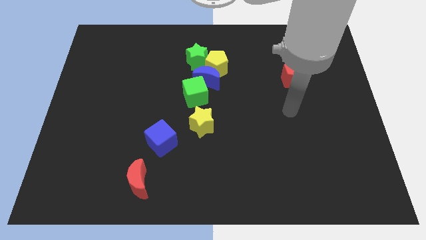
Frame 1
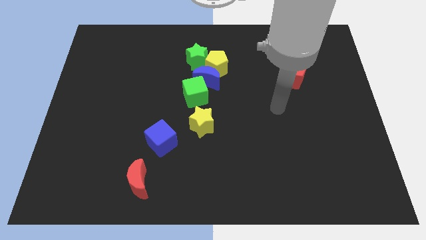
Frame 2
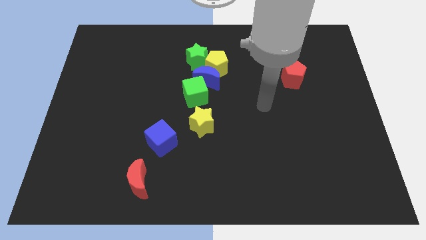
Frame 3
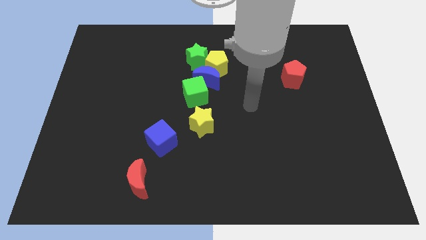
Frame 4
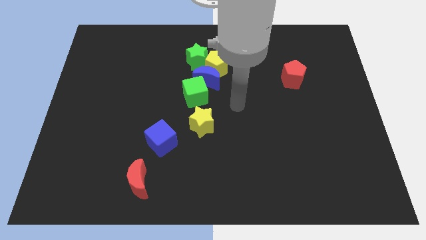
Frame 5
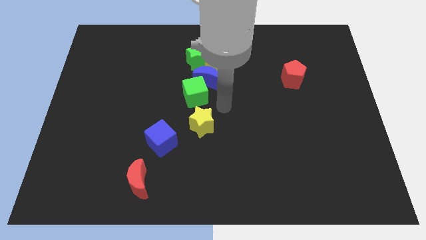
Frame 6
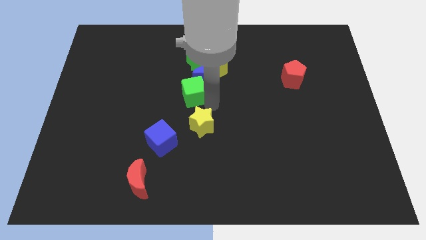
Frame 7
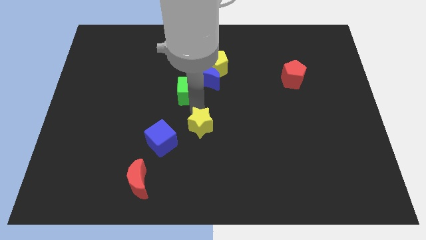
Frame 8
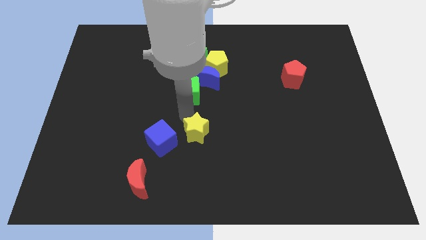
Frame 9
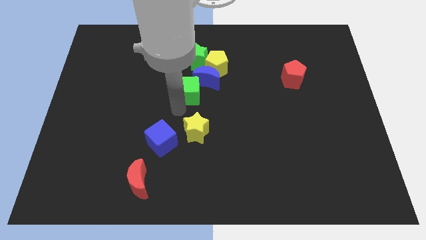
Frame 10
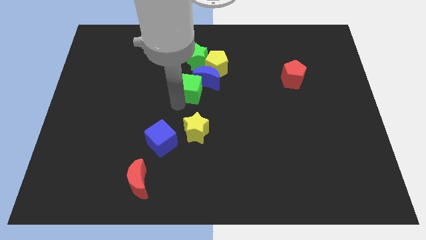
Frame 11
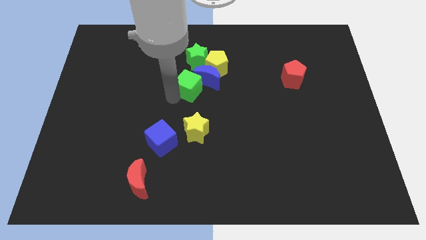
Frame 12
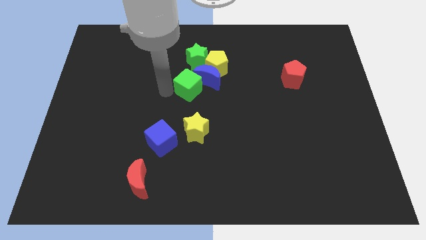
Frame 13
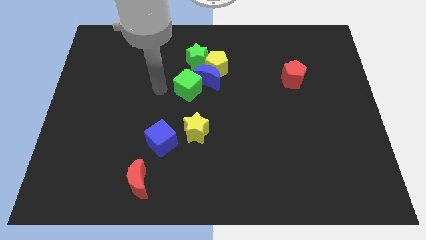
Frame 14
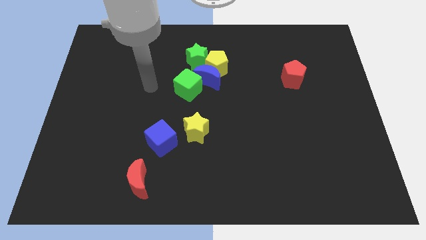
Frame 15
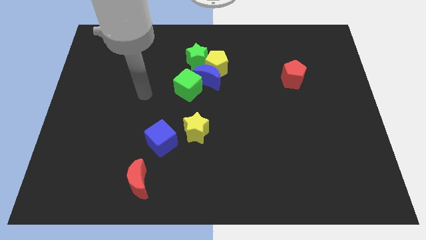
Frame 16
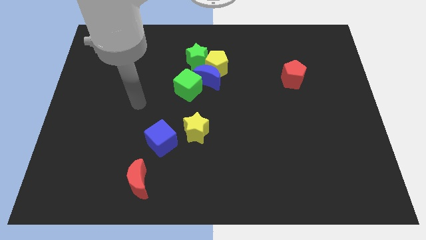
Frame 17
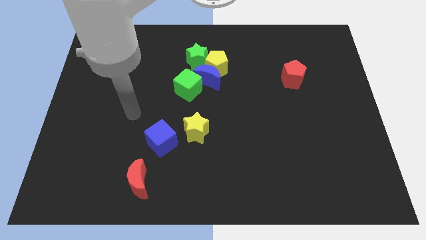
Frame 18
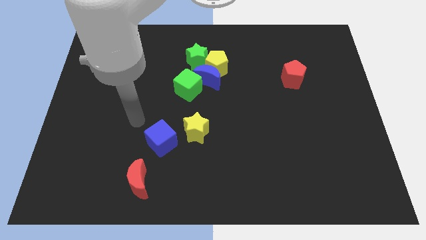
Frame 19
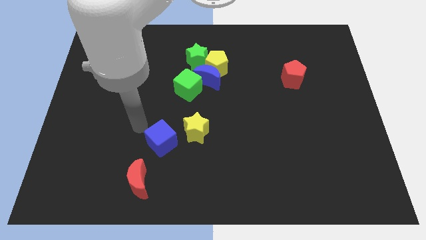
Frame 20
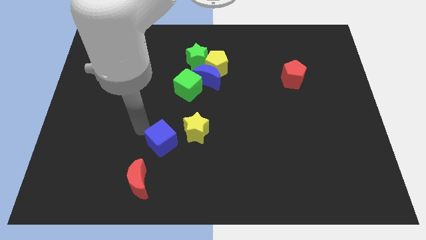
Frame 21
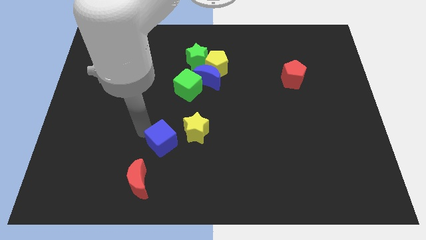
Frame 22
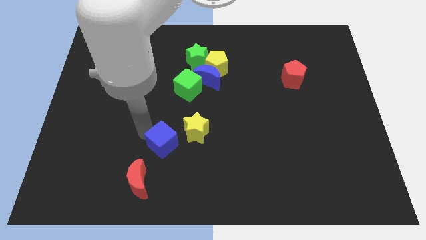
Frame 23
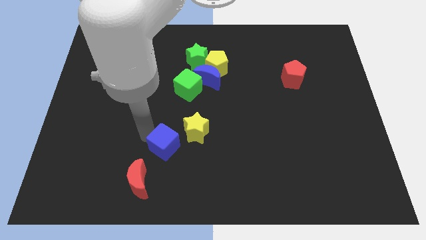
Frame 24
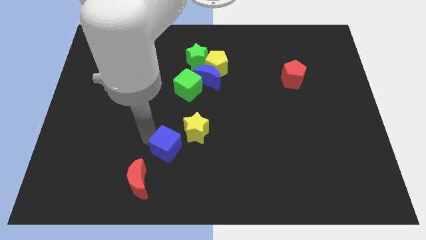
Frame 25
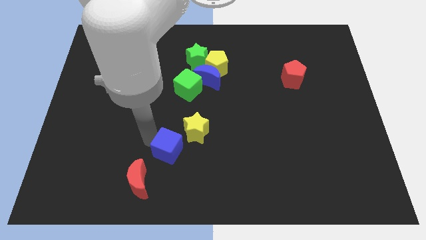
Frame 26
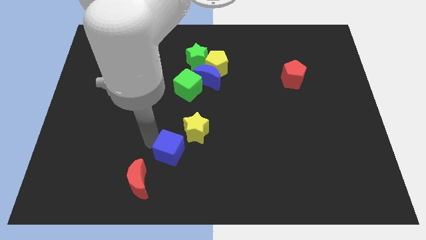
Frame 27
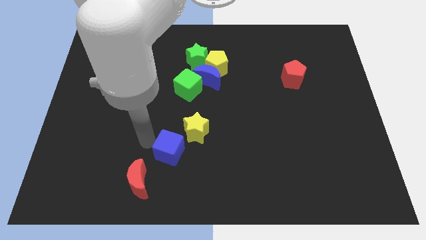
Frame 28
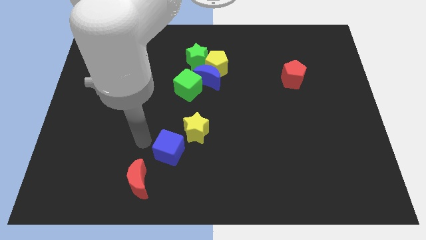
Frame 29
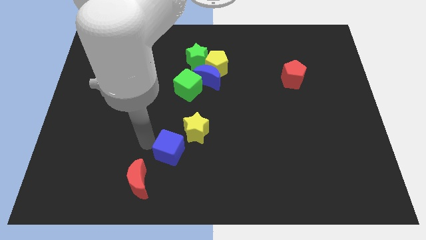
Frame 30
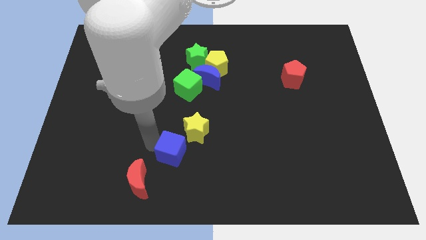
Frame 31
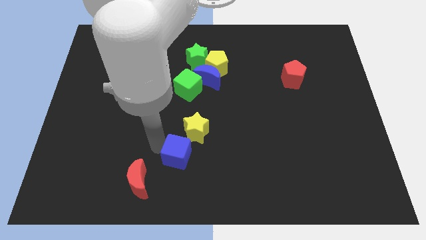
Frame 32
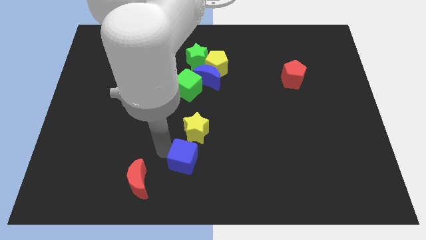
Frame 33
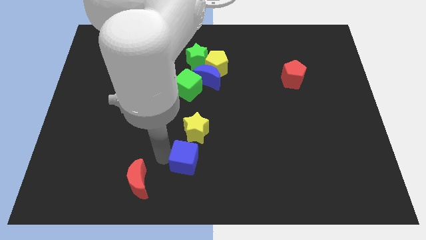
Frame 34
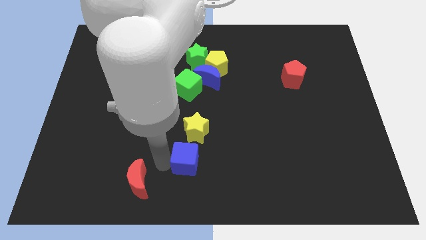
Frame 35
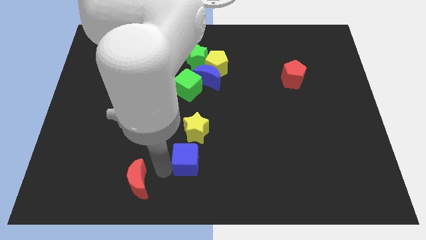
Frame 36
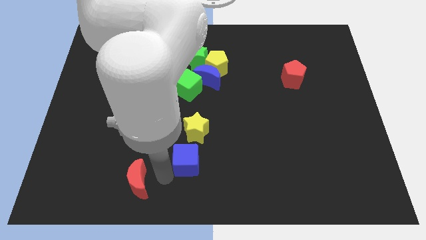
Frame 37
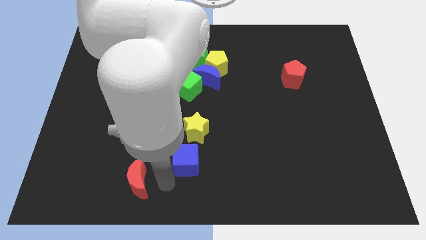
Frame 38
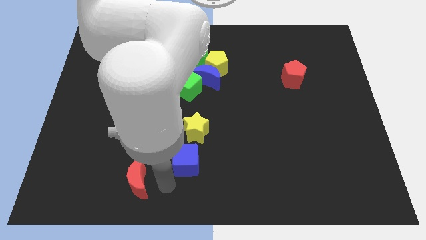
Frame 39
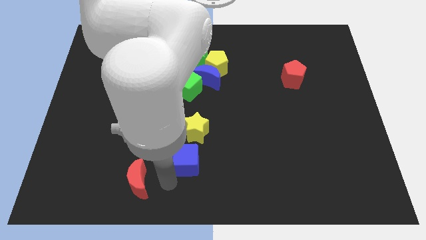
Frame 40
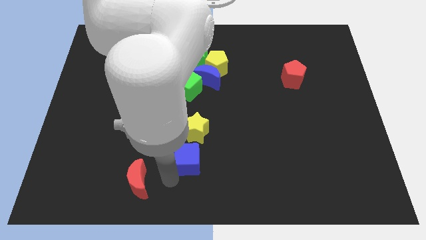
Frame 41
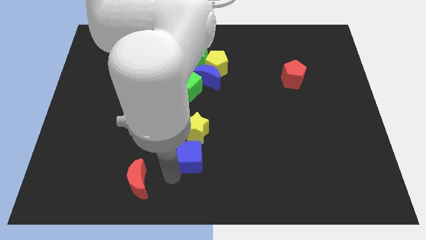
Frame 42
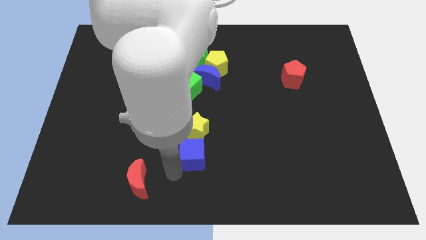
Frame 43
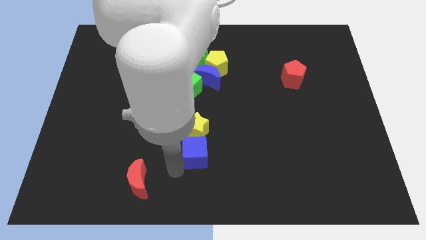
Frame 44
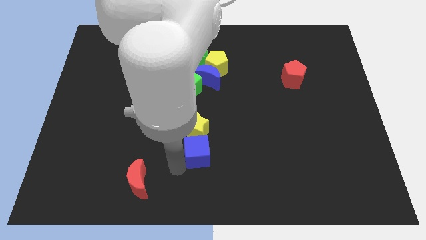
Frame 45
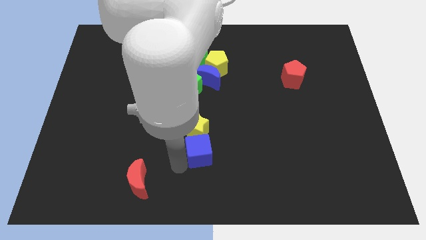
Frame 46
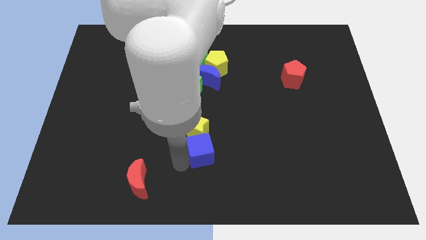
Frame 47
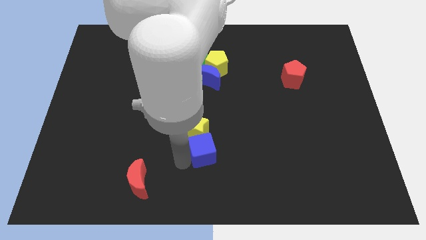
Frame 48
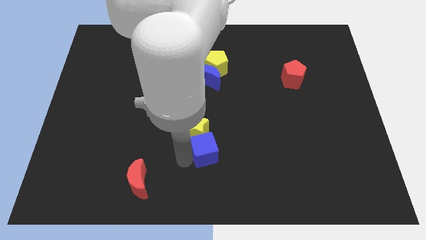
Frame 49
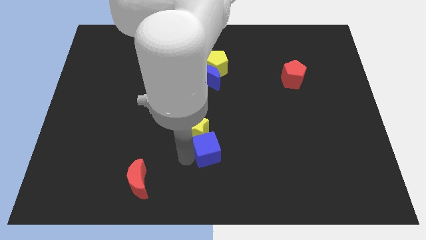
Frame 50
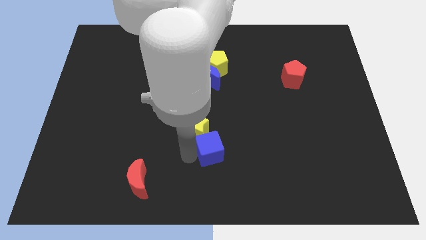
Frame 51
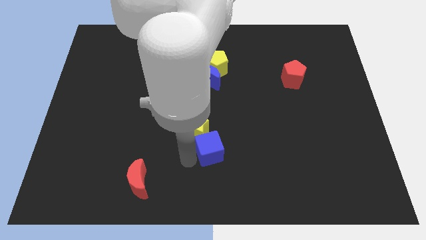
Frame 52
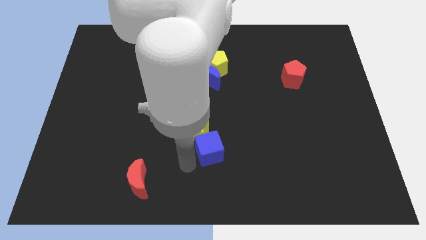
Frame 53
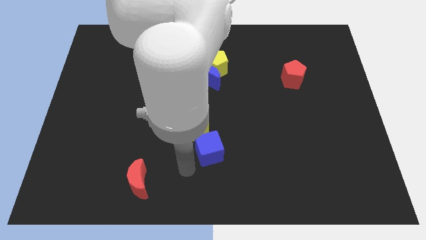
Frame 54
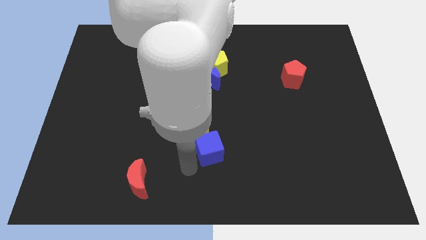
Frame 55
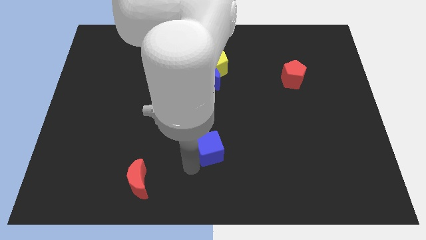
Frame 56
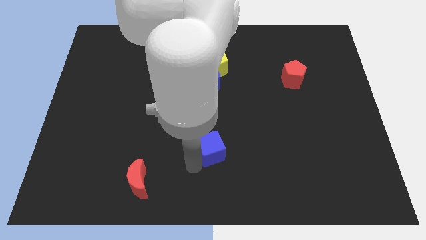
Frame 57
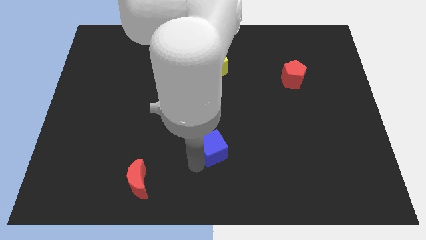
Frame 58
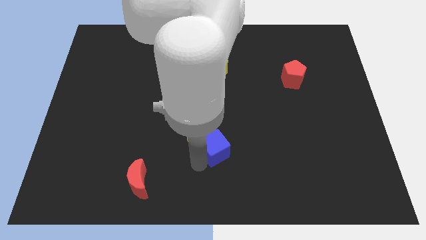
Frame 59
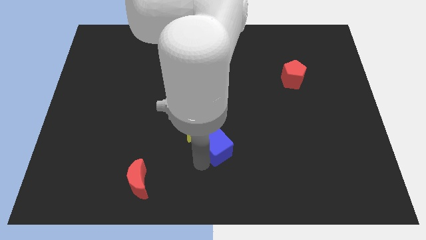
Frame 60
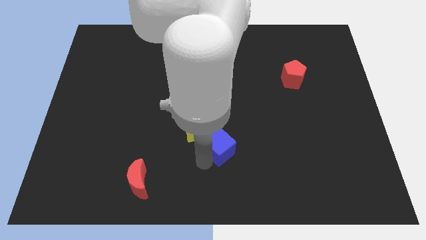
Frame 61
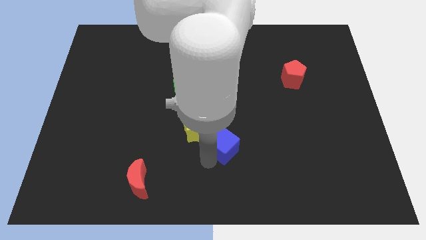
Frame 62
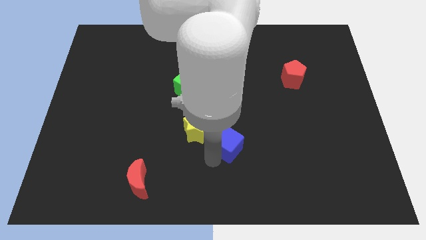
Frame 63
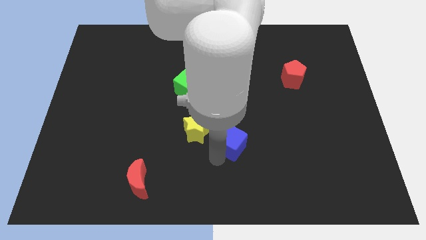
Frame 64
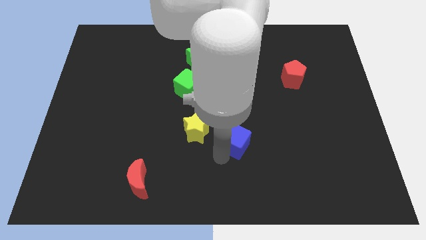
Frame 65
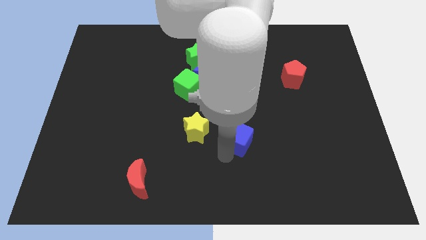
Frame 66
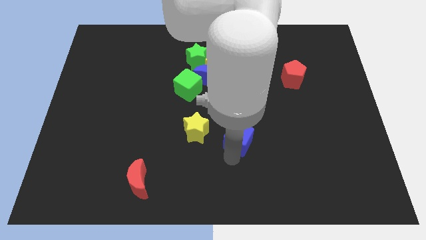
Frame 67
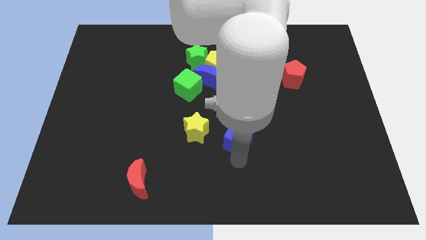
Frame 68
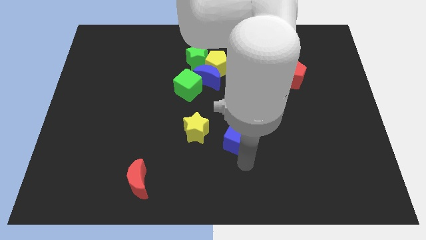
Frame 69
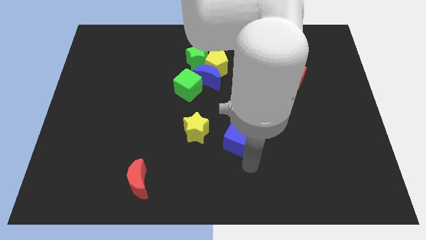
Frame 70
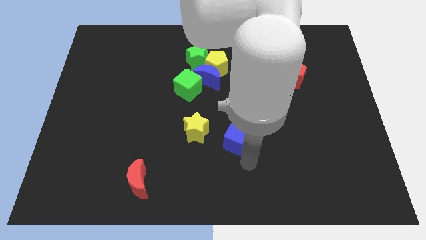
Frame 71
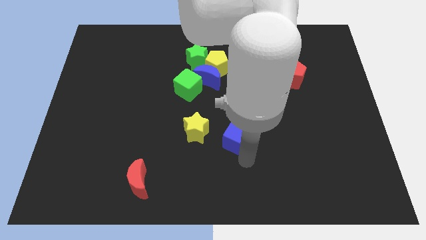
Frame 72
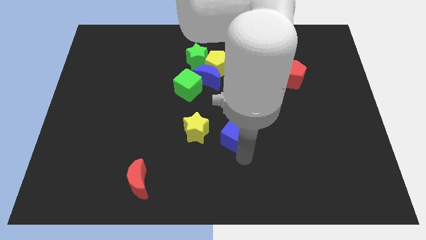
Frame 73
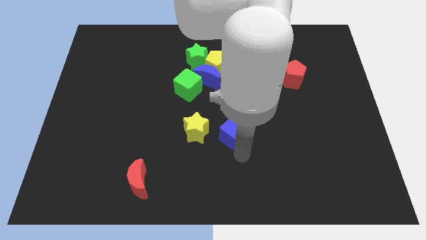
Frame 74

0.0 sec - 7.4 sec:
slide the blue cube upwards and right a little

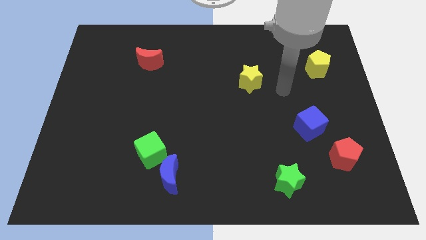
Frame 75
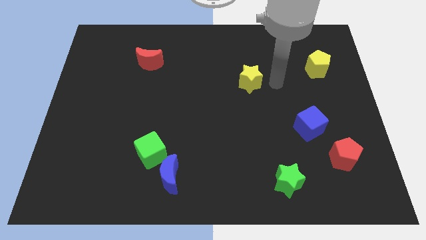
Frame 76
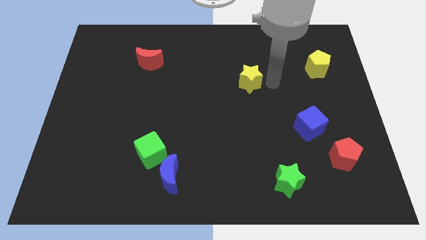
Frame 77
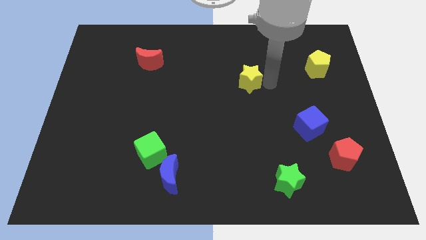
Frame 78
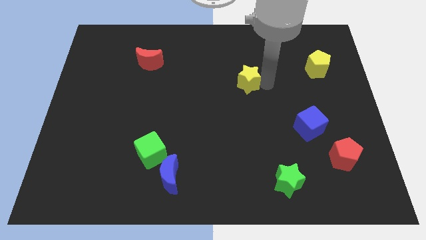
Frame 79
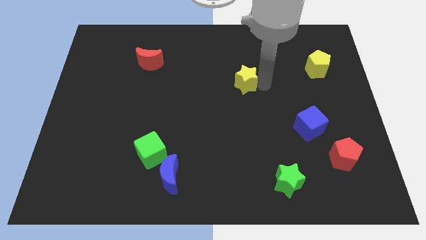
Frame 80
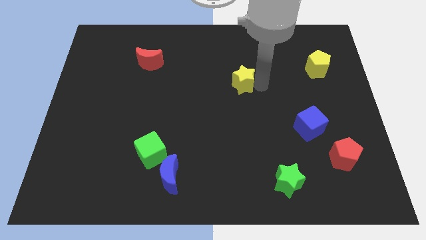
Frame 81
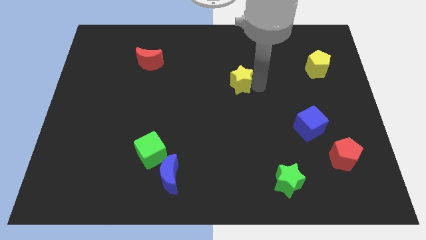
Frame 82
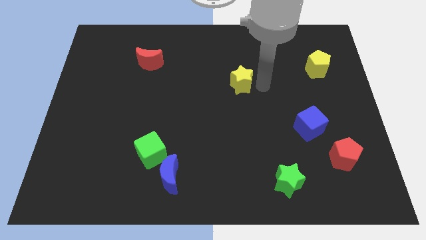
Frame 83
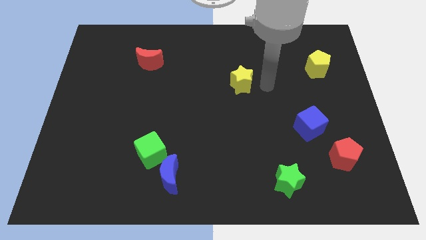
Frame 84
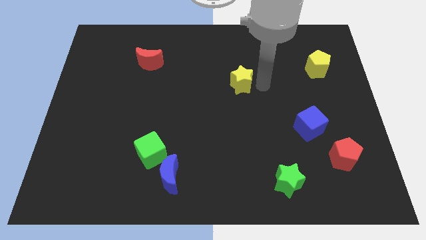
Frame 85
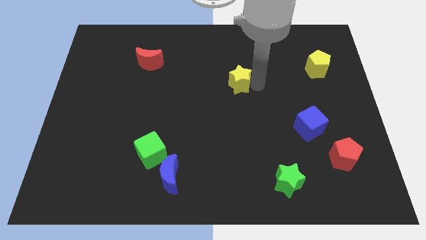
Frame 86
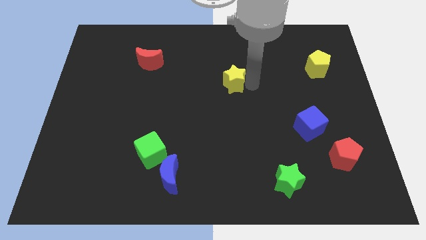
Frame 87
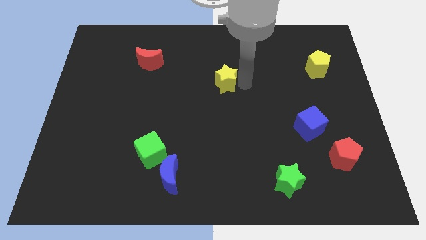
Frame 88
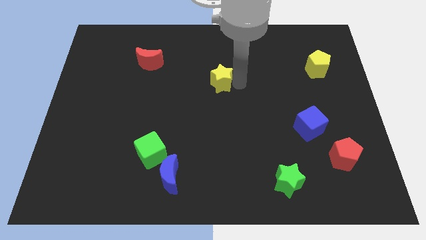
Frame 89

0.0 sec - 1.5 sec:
push the yellow star a little bit left
